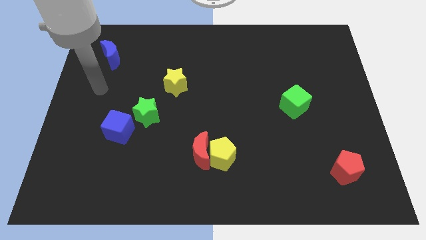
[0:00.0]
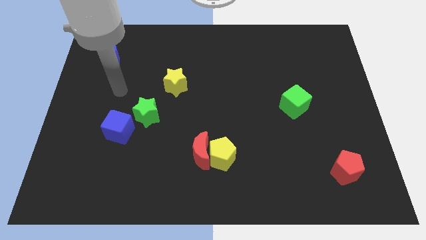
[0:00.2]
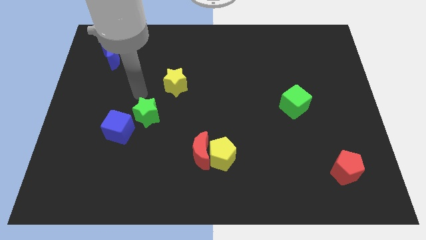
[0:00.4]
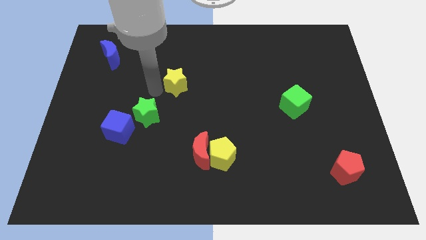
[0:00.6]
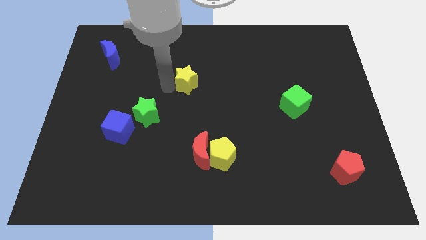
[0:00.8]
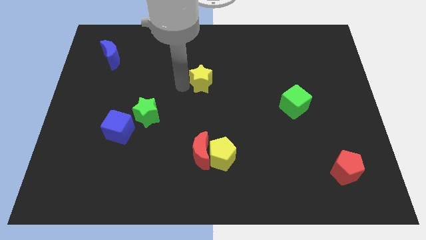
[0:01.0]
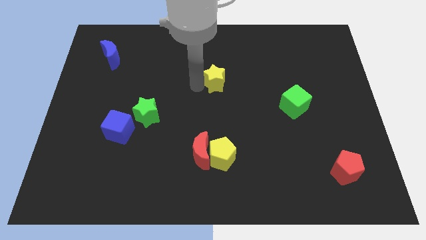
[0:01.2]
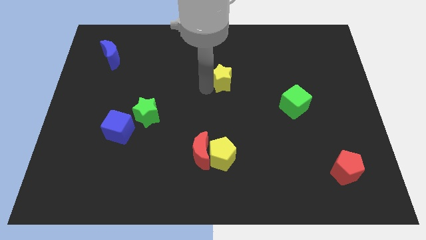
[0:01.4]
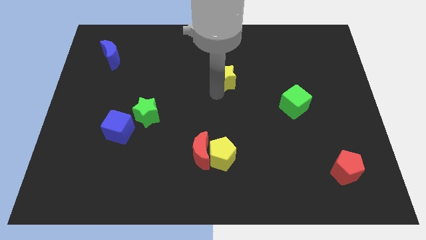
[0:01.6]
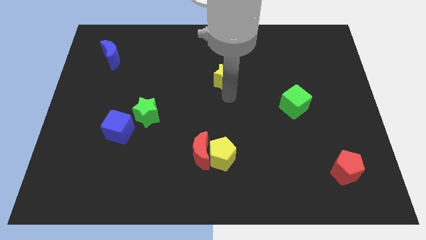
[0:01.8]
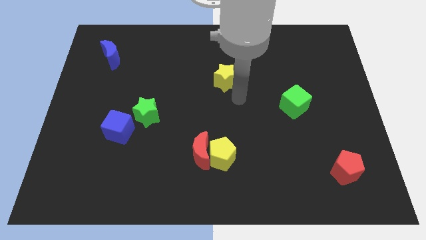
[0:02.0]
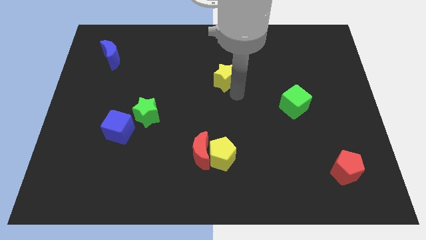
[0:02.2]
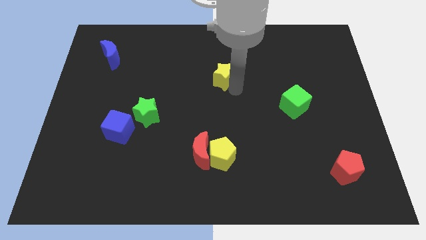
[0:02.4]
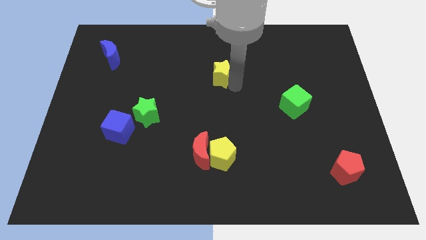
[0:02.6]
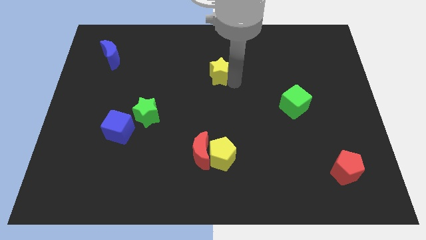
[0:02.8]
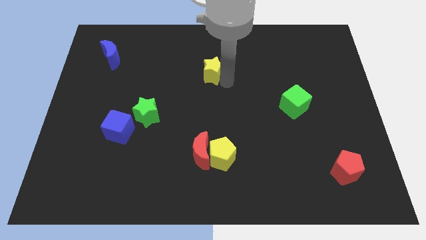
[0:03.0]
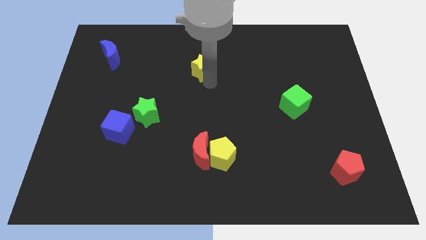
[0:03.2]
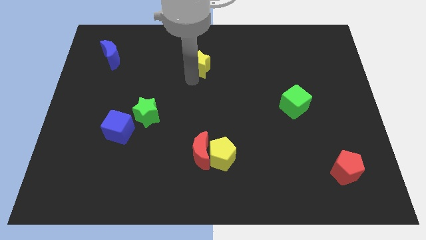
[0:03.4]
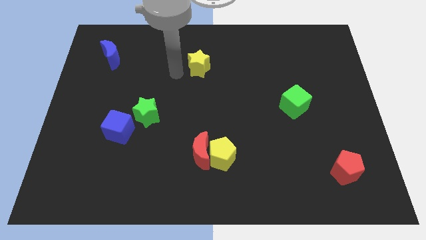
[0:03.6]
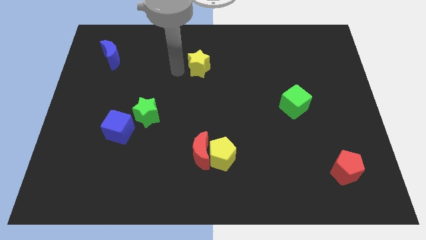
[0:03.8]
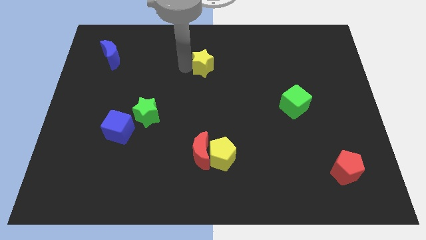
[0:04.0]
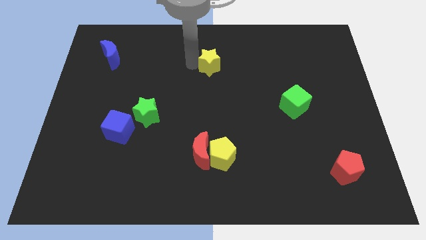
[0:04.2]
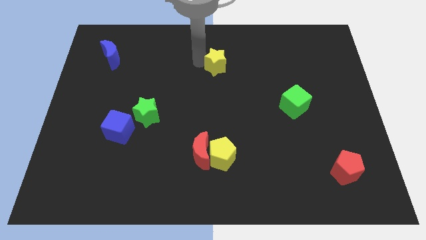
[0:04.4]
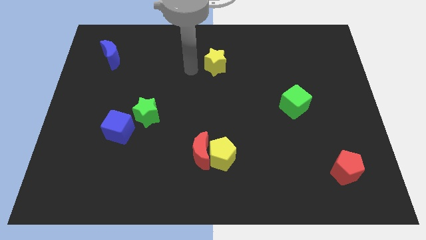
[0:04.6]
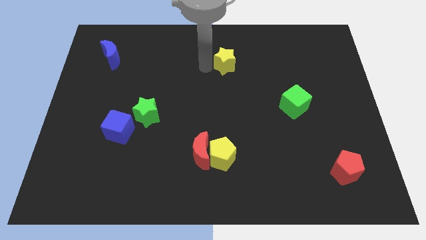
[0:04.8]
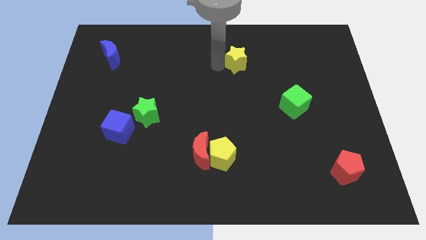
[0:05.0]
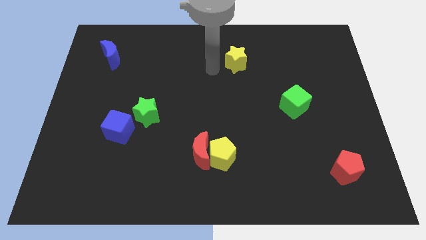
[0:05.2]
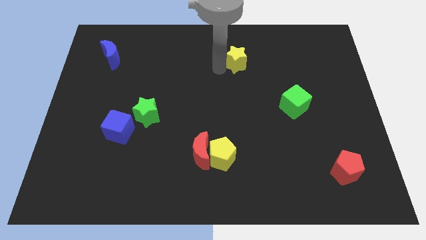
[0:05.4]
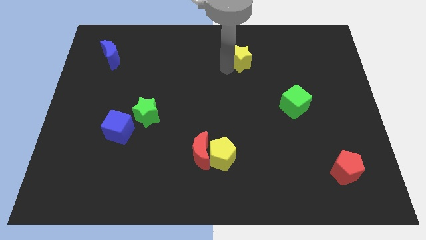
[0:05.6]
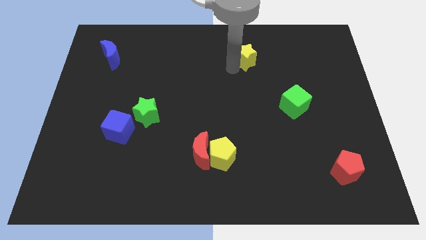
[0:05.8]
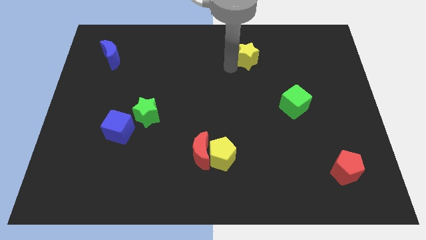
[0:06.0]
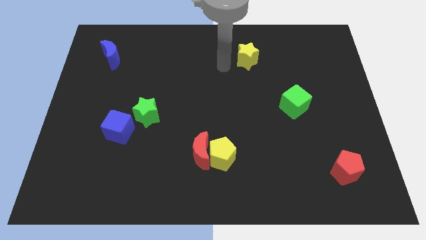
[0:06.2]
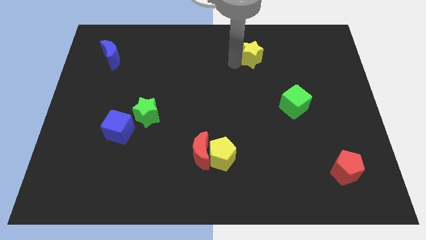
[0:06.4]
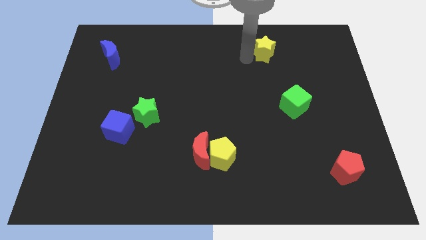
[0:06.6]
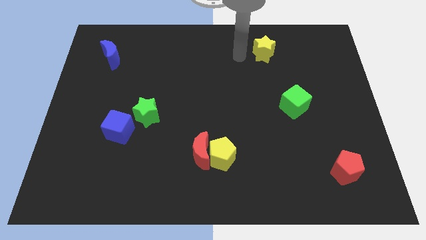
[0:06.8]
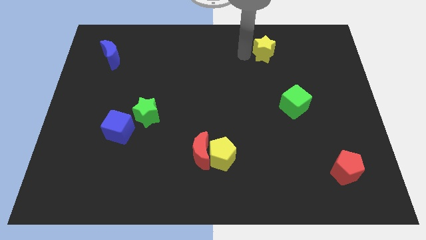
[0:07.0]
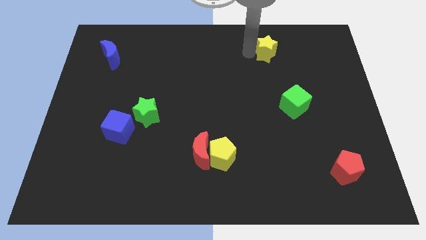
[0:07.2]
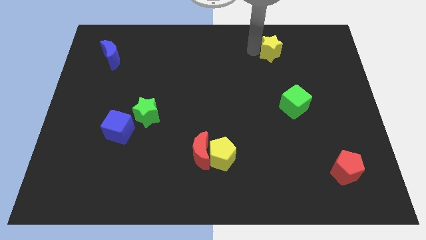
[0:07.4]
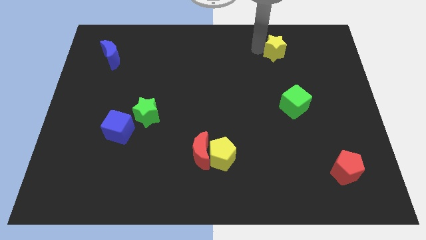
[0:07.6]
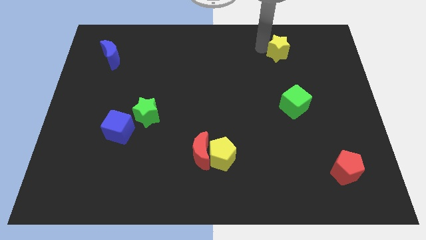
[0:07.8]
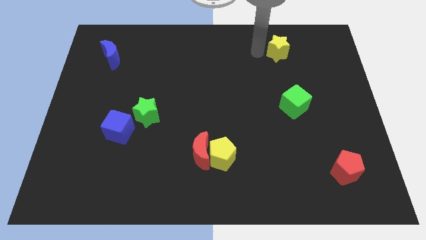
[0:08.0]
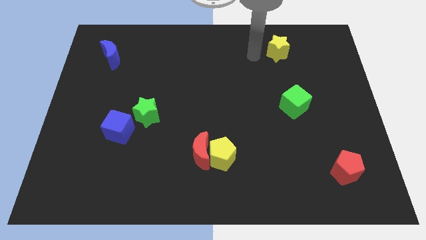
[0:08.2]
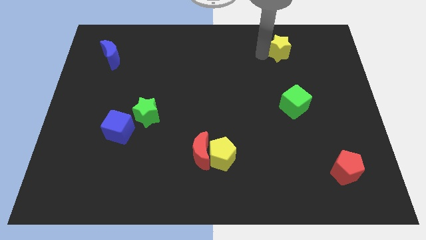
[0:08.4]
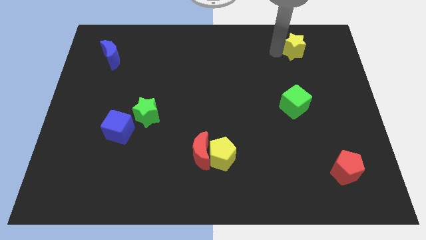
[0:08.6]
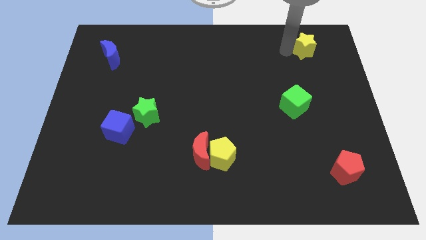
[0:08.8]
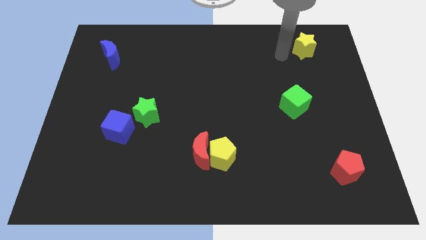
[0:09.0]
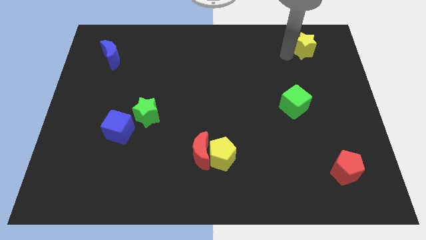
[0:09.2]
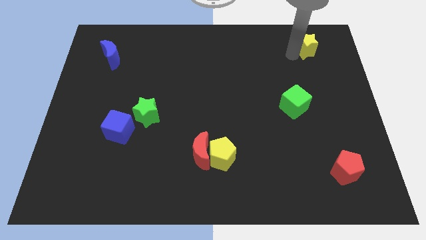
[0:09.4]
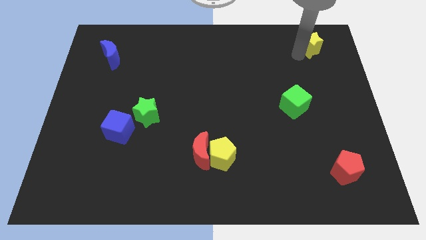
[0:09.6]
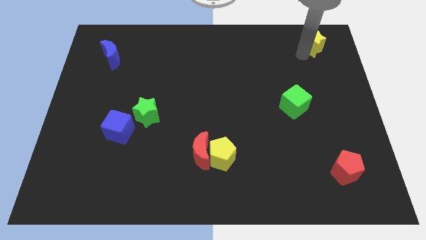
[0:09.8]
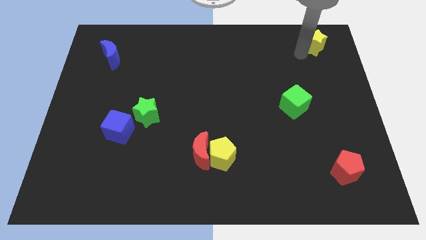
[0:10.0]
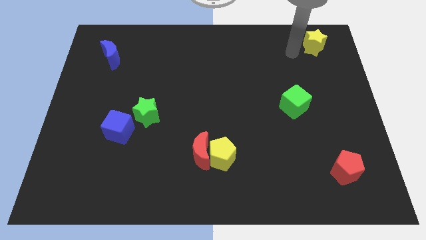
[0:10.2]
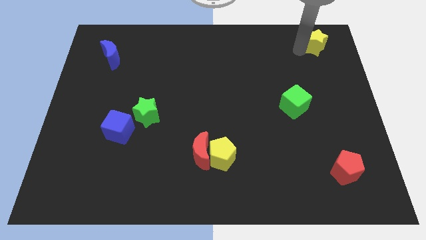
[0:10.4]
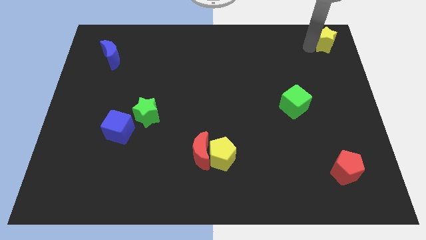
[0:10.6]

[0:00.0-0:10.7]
put the yellow star to the top right

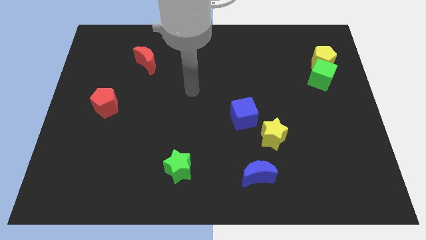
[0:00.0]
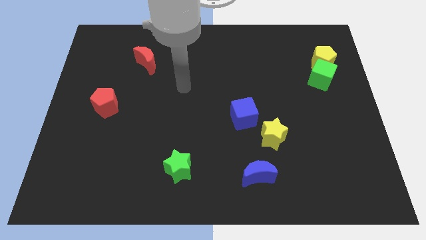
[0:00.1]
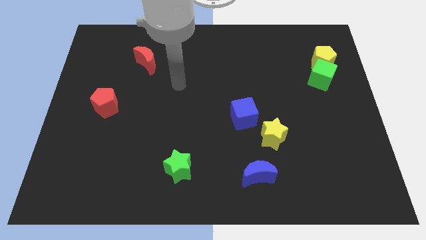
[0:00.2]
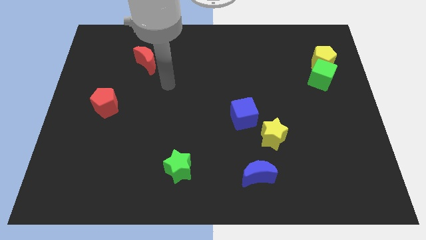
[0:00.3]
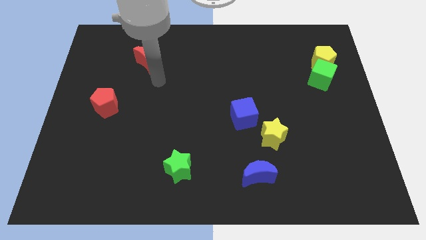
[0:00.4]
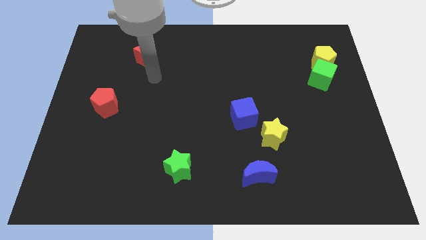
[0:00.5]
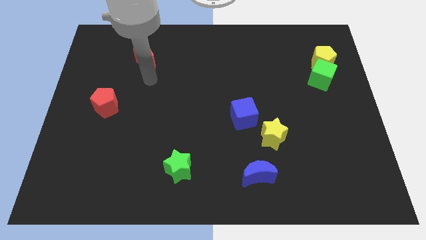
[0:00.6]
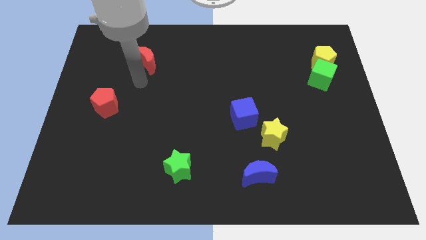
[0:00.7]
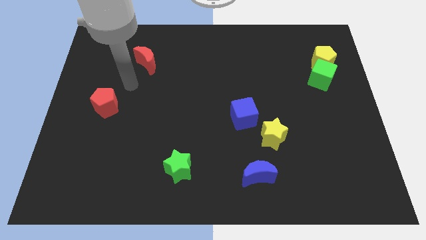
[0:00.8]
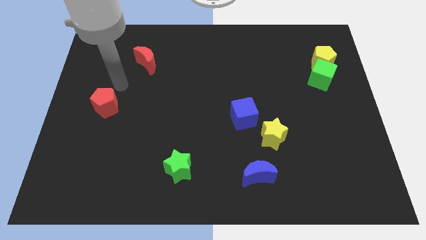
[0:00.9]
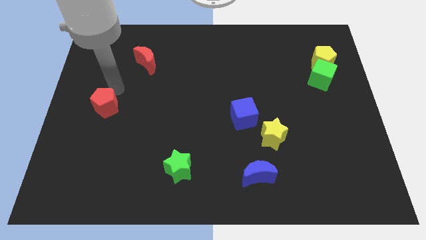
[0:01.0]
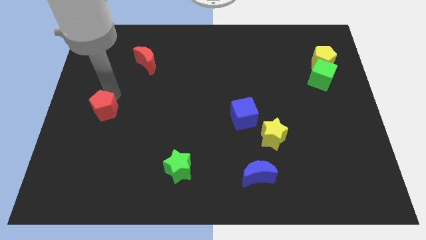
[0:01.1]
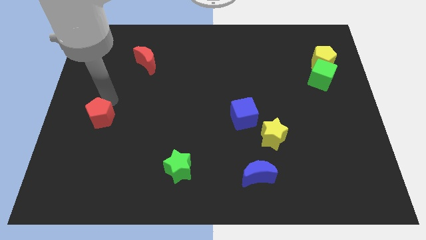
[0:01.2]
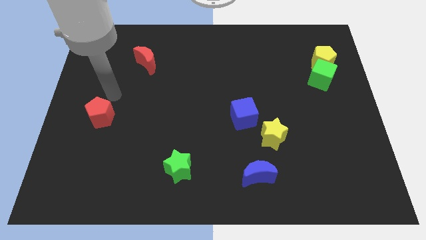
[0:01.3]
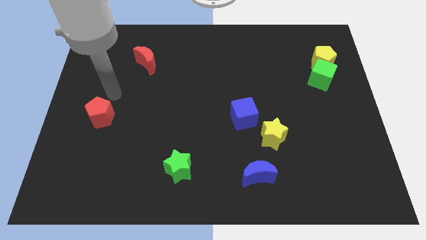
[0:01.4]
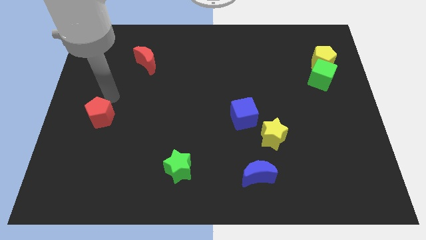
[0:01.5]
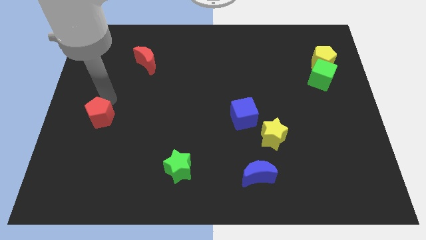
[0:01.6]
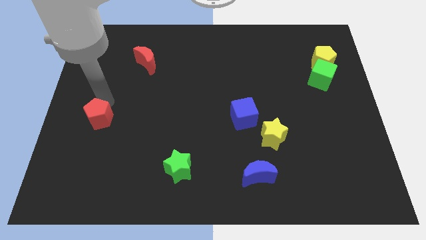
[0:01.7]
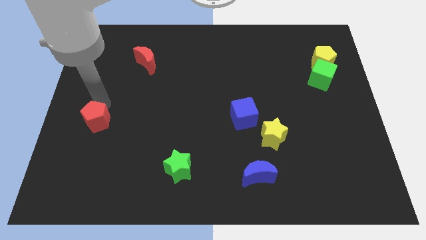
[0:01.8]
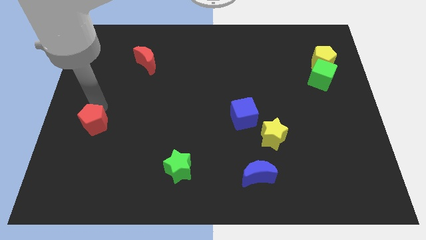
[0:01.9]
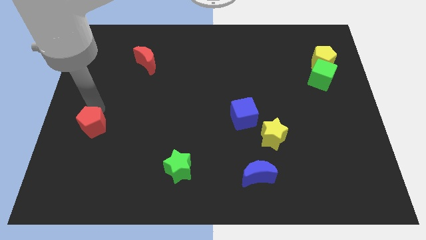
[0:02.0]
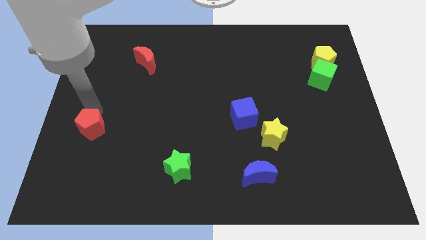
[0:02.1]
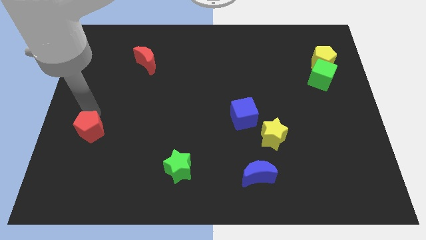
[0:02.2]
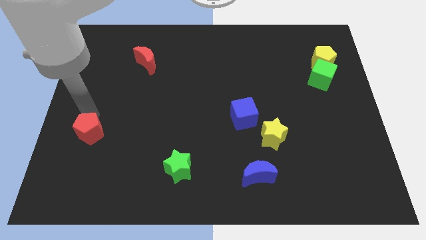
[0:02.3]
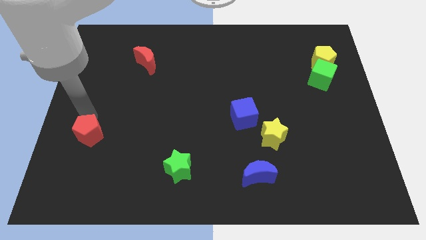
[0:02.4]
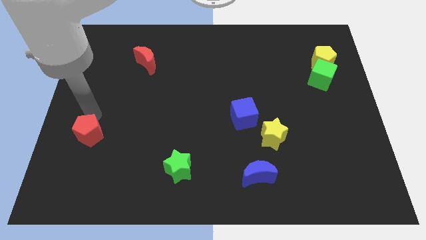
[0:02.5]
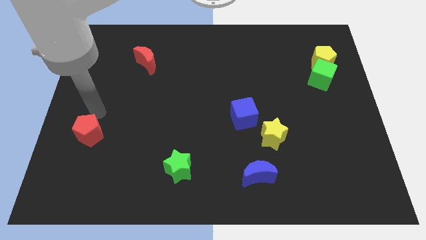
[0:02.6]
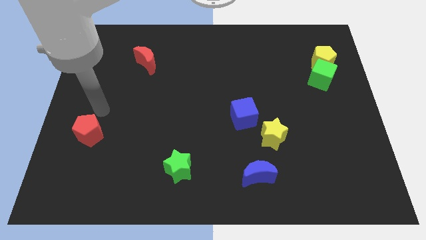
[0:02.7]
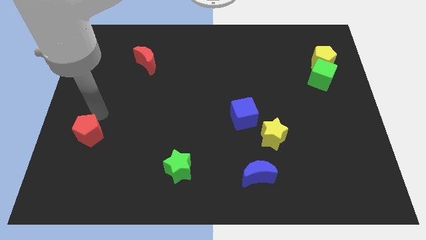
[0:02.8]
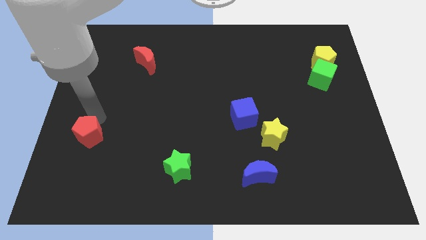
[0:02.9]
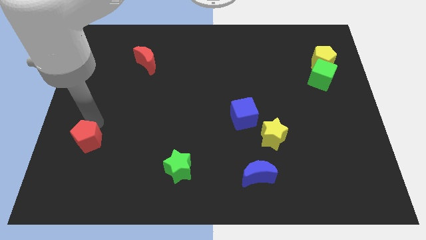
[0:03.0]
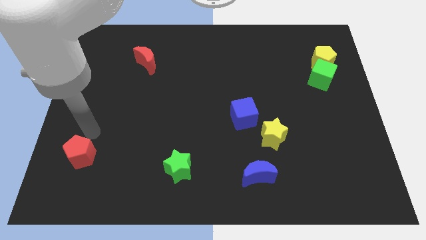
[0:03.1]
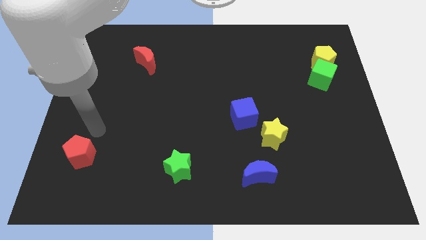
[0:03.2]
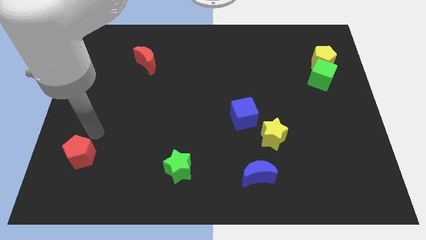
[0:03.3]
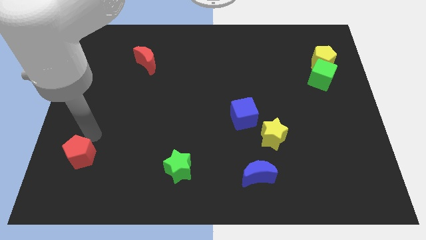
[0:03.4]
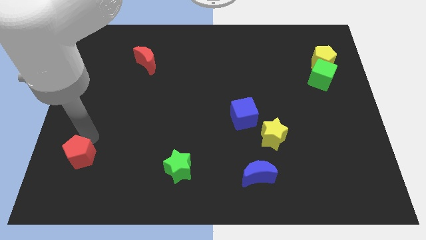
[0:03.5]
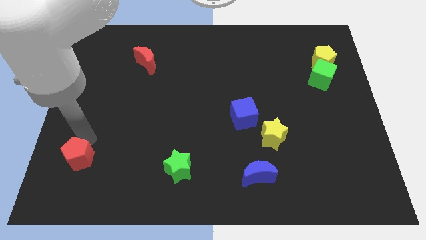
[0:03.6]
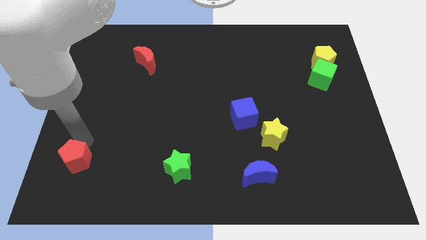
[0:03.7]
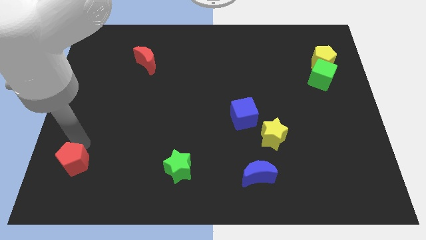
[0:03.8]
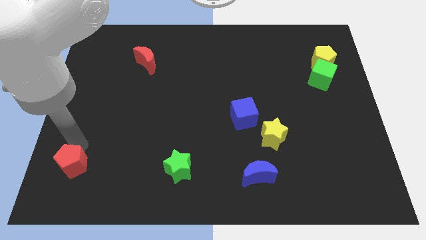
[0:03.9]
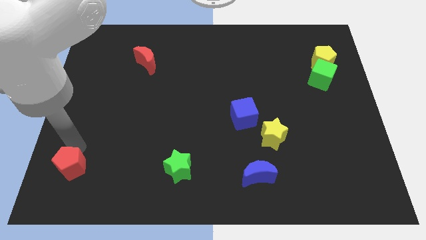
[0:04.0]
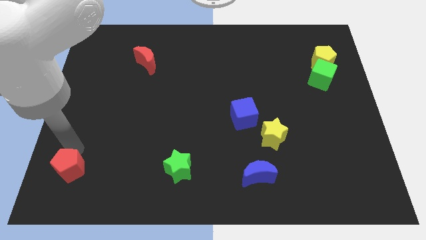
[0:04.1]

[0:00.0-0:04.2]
push the red pentagon to the bottom left corner
